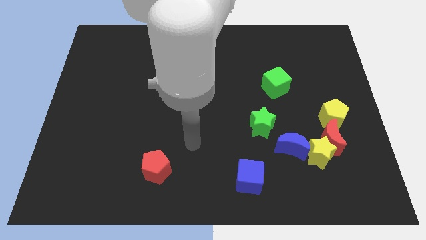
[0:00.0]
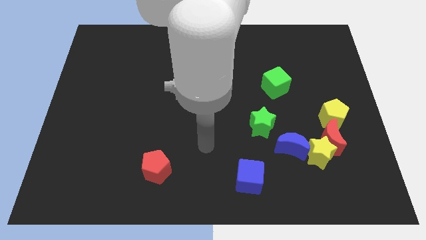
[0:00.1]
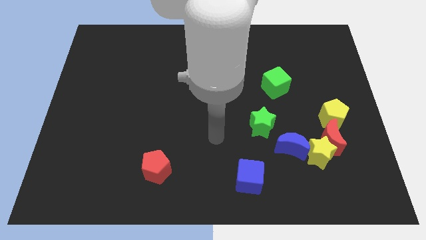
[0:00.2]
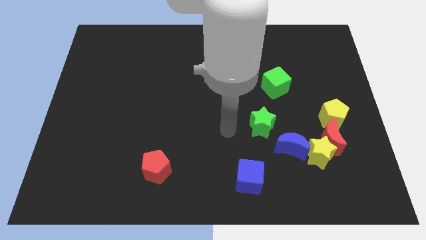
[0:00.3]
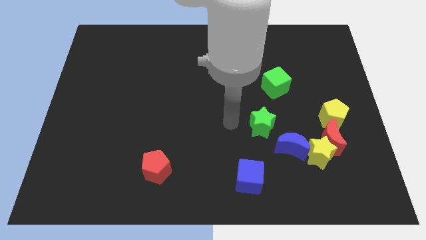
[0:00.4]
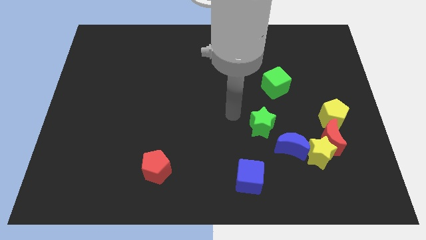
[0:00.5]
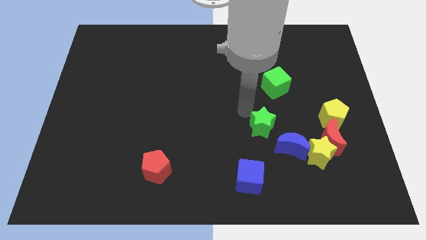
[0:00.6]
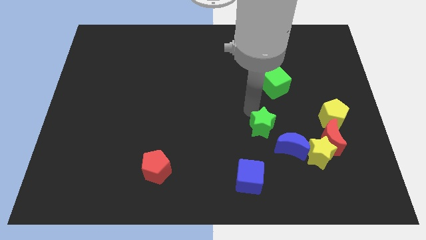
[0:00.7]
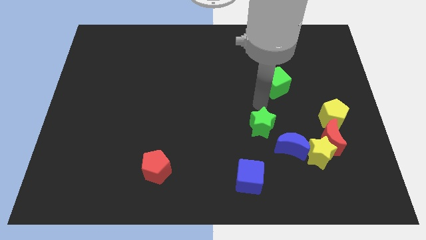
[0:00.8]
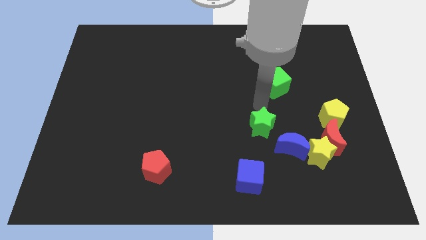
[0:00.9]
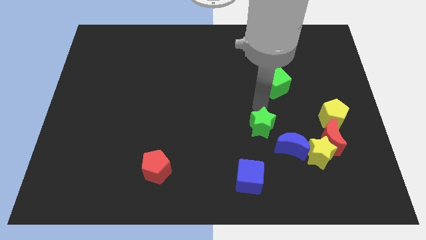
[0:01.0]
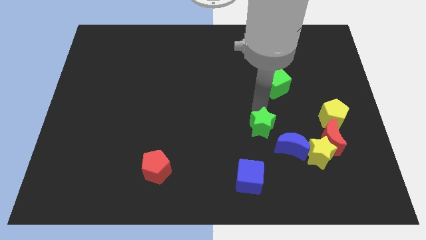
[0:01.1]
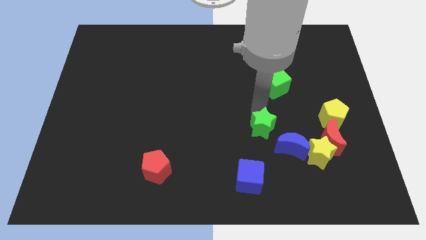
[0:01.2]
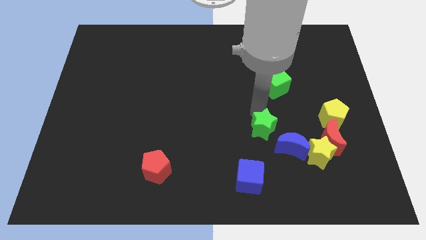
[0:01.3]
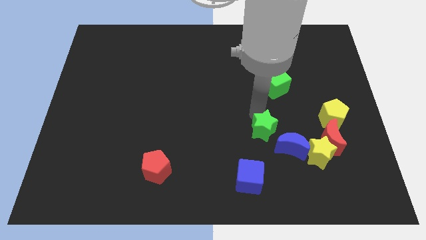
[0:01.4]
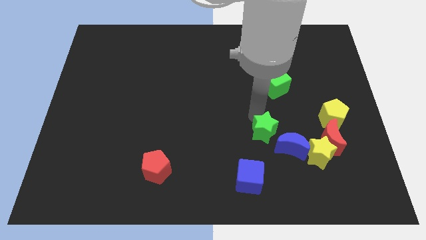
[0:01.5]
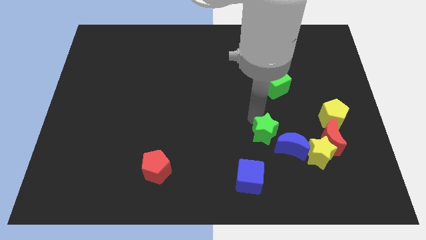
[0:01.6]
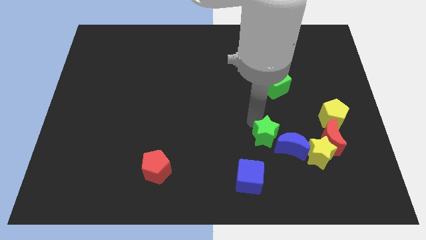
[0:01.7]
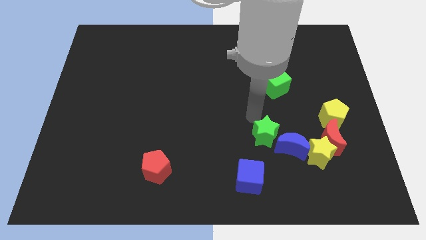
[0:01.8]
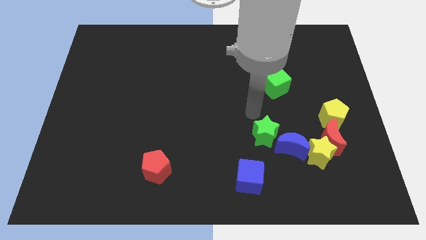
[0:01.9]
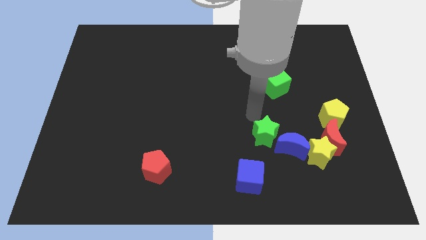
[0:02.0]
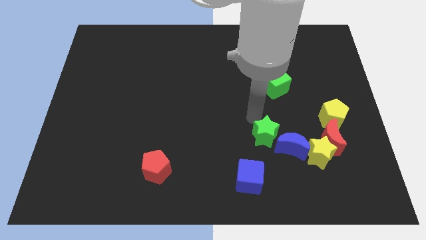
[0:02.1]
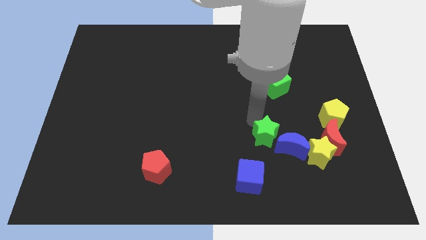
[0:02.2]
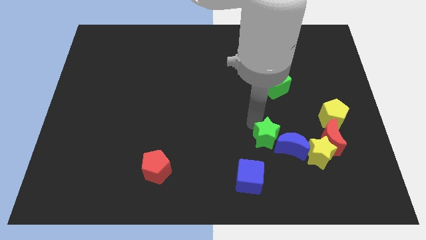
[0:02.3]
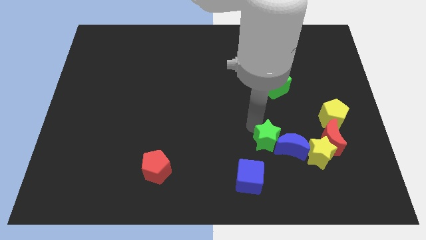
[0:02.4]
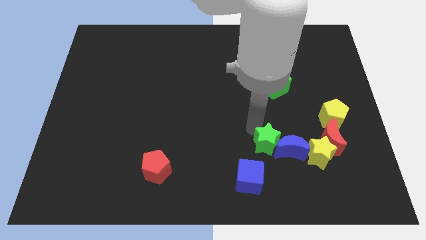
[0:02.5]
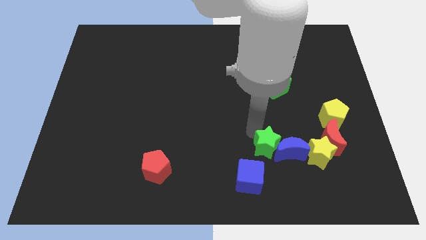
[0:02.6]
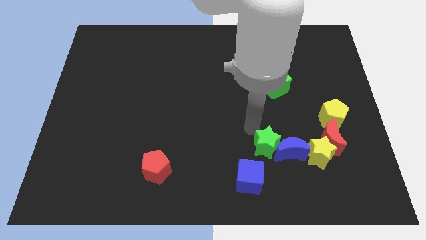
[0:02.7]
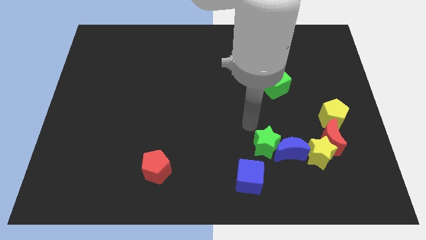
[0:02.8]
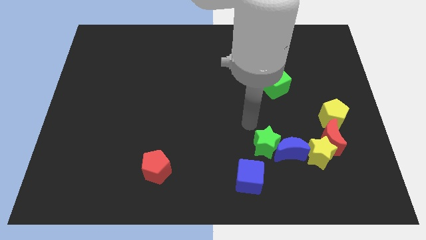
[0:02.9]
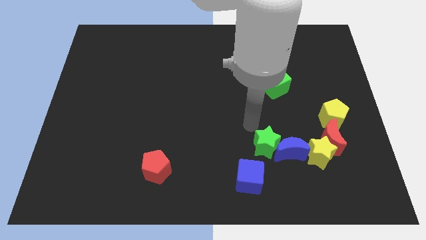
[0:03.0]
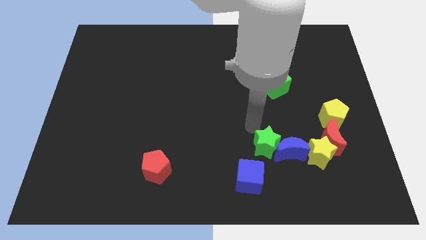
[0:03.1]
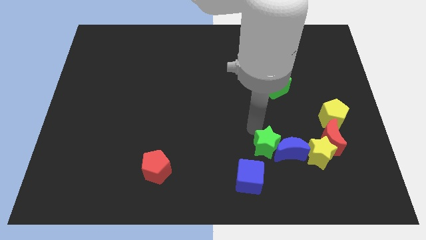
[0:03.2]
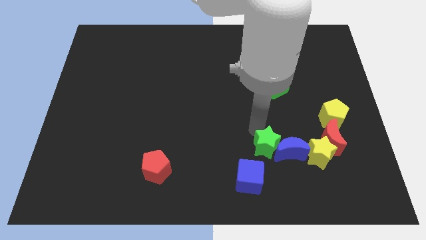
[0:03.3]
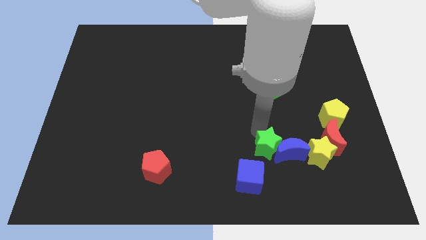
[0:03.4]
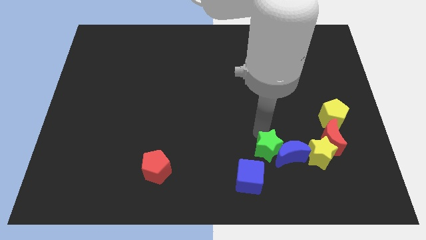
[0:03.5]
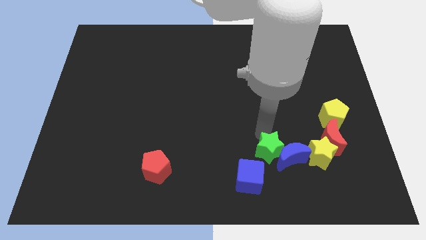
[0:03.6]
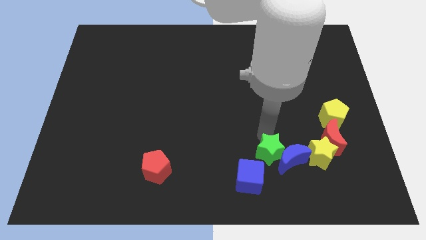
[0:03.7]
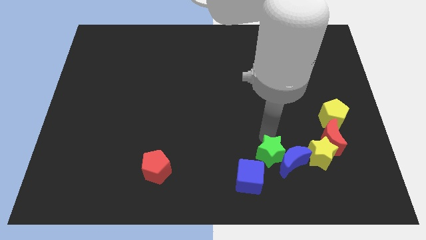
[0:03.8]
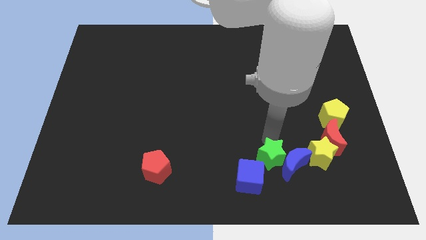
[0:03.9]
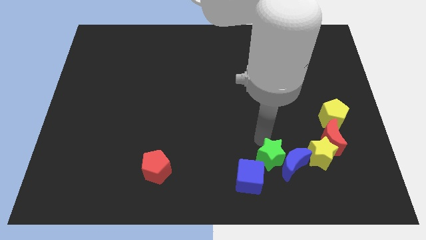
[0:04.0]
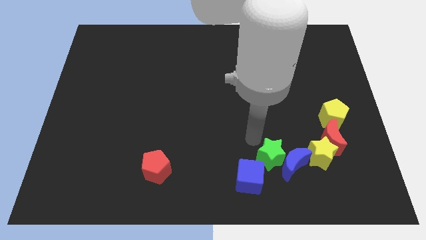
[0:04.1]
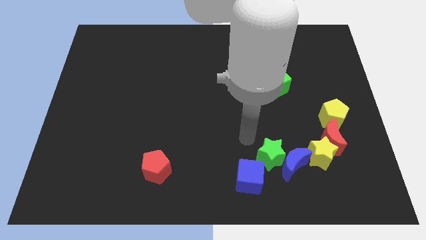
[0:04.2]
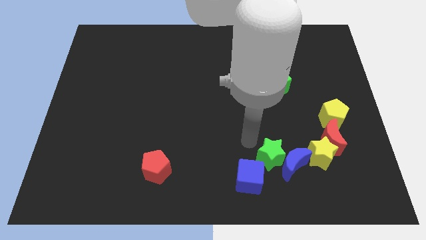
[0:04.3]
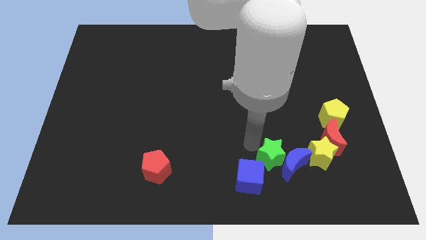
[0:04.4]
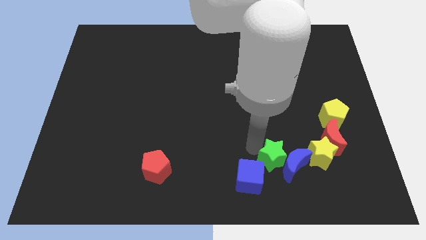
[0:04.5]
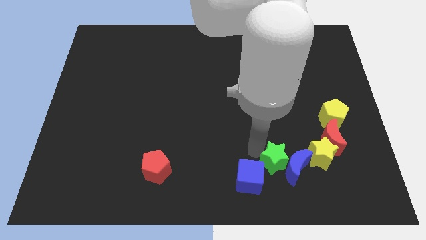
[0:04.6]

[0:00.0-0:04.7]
slide the green star to the right side of the blue cube

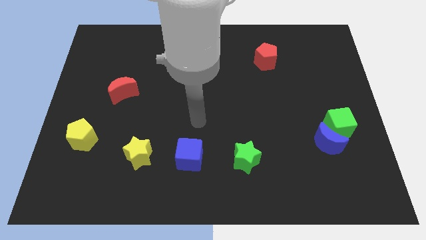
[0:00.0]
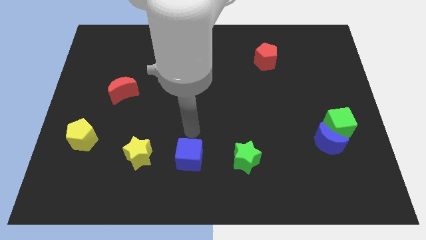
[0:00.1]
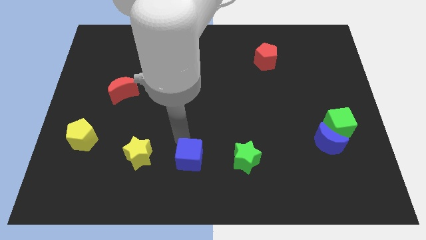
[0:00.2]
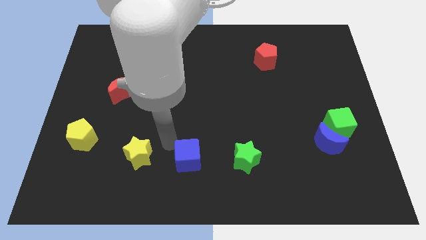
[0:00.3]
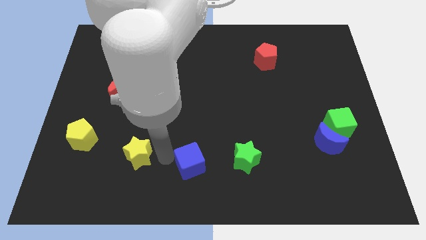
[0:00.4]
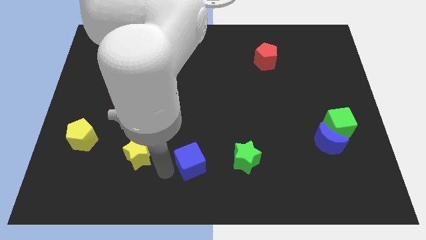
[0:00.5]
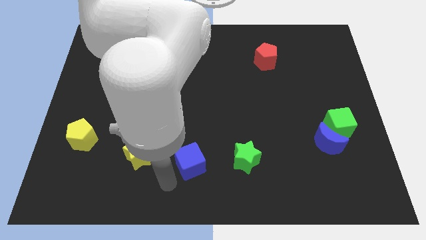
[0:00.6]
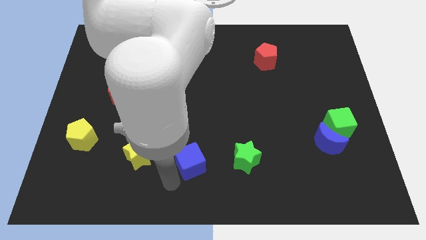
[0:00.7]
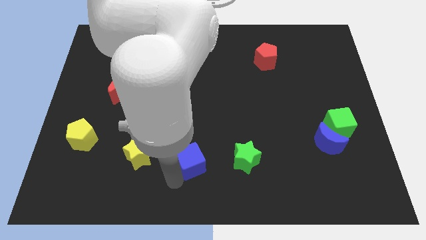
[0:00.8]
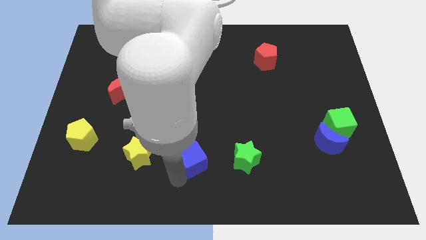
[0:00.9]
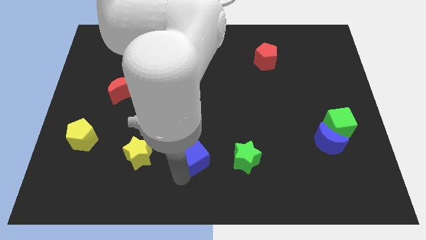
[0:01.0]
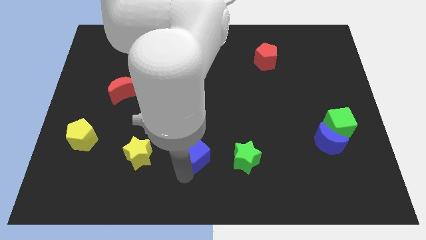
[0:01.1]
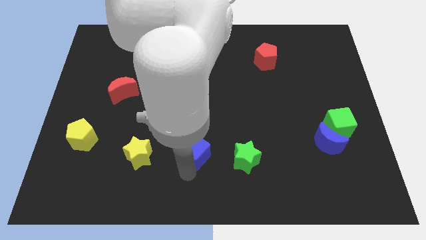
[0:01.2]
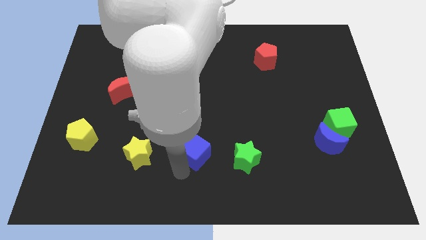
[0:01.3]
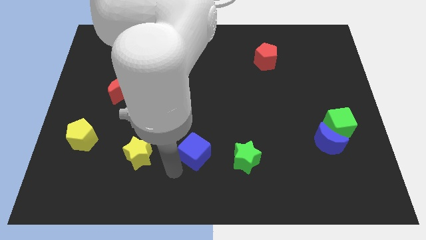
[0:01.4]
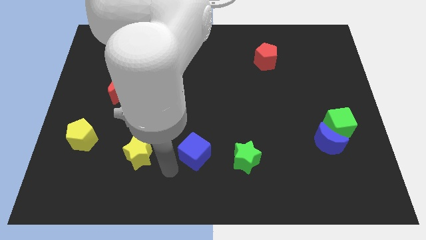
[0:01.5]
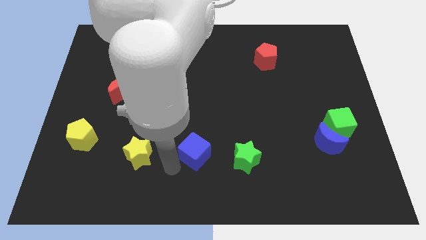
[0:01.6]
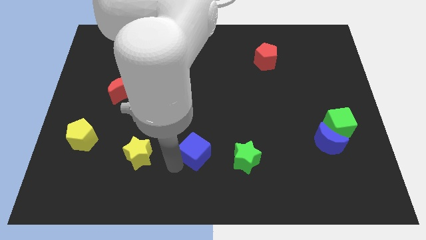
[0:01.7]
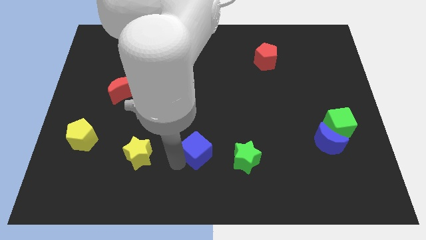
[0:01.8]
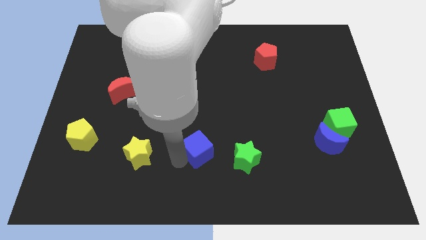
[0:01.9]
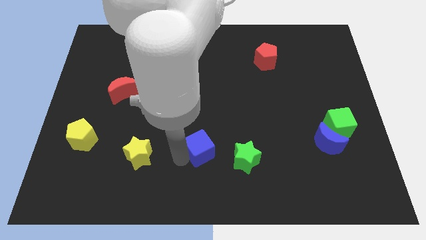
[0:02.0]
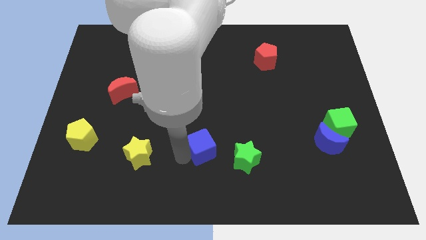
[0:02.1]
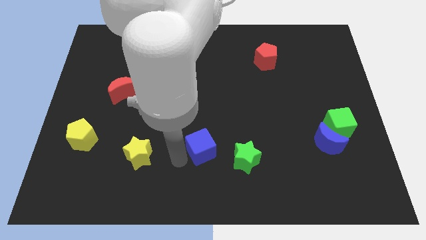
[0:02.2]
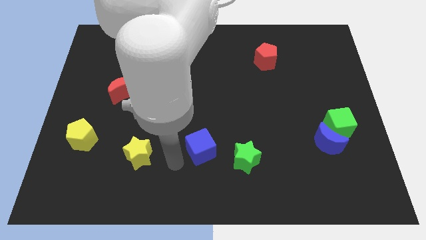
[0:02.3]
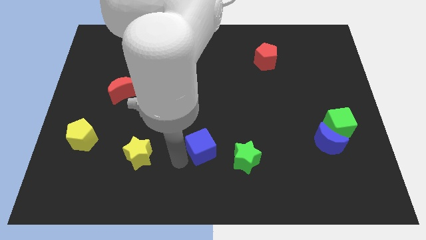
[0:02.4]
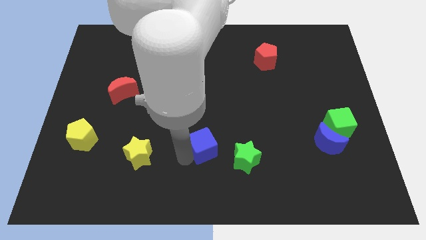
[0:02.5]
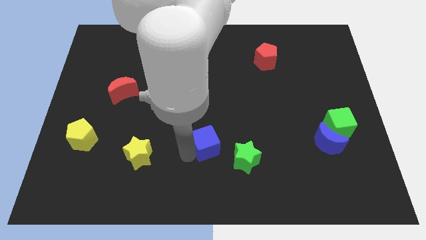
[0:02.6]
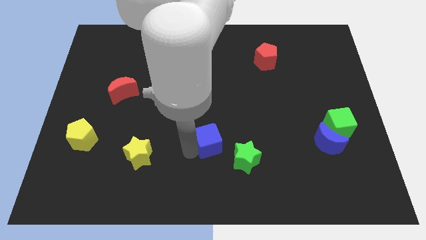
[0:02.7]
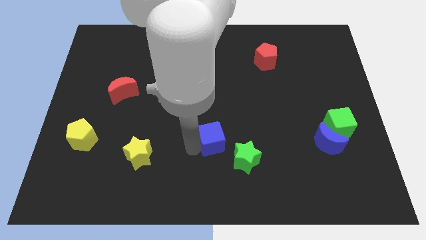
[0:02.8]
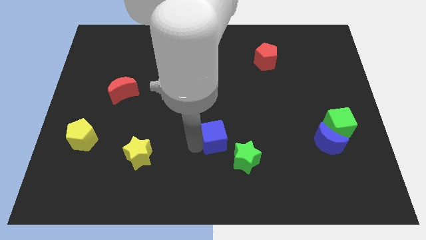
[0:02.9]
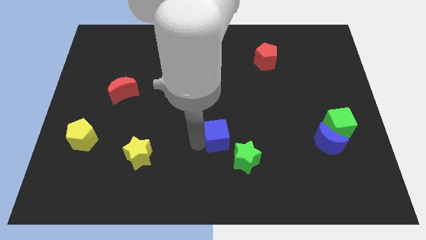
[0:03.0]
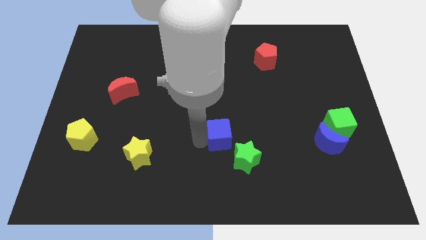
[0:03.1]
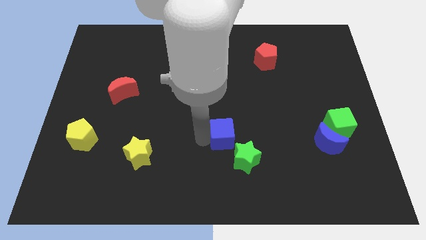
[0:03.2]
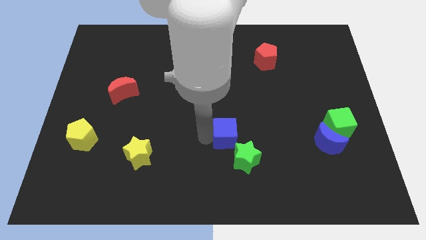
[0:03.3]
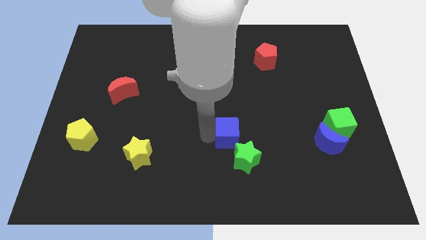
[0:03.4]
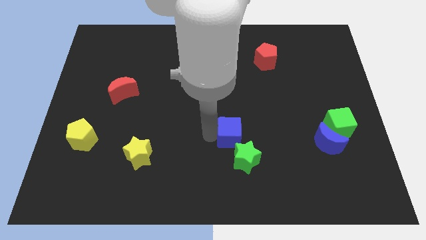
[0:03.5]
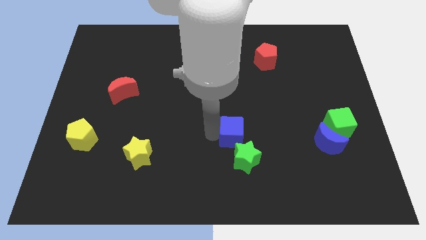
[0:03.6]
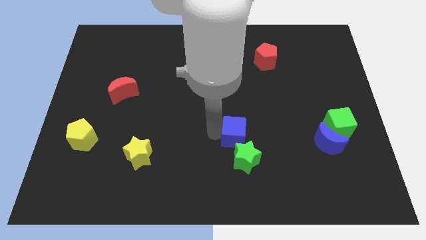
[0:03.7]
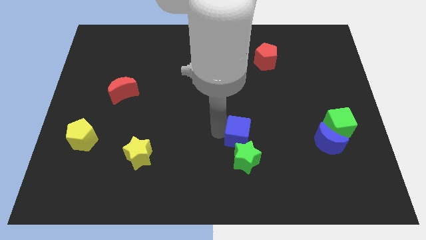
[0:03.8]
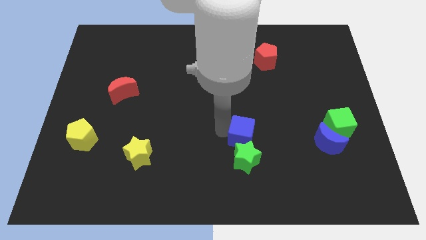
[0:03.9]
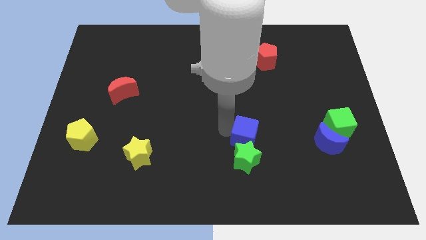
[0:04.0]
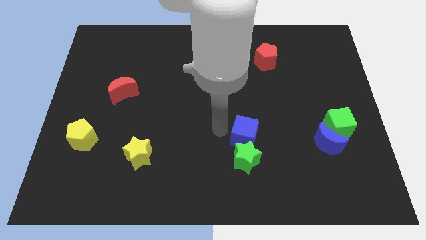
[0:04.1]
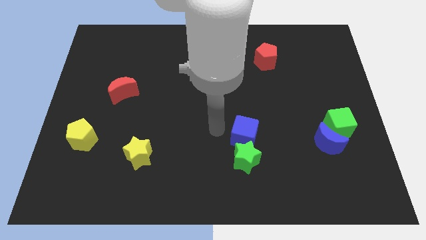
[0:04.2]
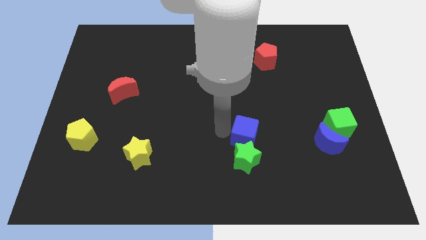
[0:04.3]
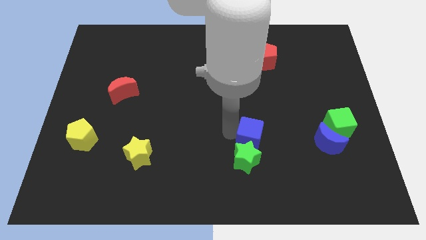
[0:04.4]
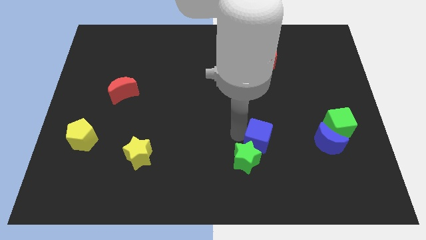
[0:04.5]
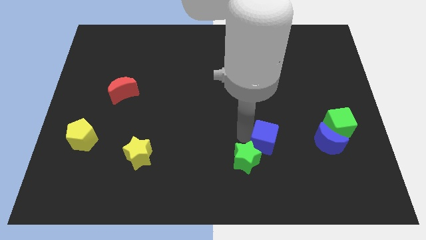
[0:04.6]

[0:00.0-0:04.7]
put the blue cube to the right side of the green star
